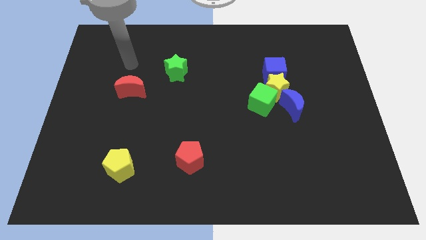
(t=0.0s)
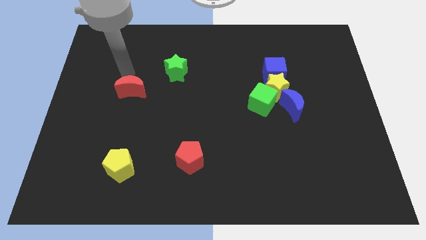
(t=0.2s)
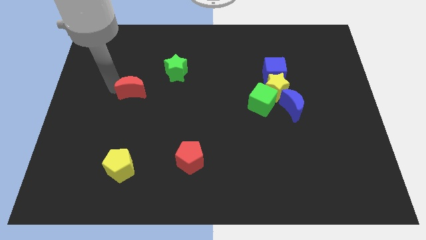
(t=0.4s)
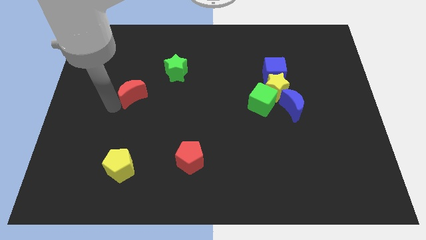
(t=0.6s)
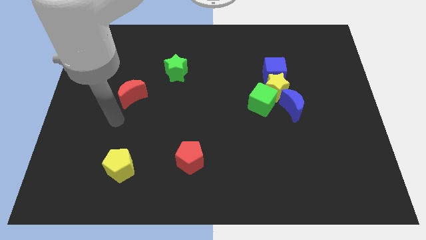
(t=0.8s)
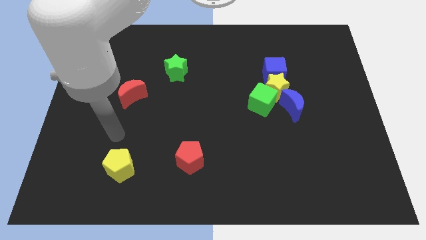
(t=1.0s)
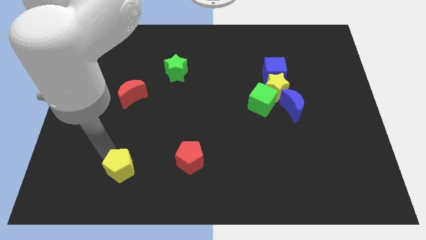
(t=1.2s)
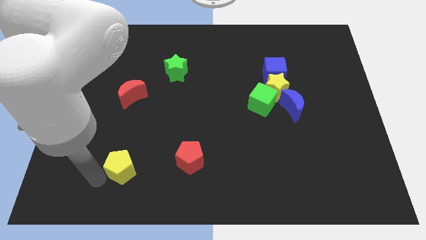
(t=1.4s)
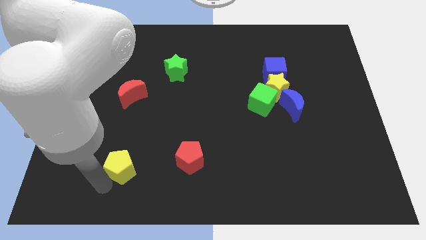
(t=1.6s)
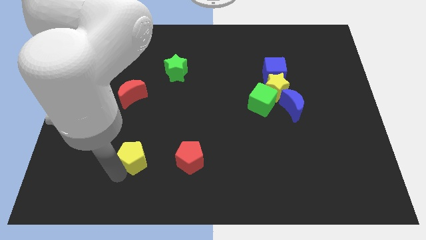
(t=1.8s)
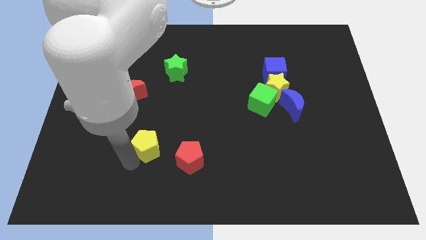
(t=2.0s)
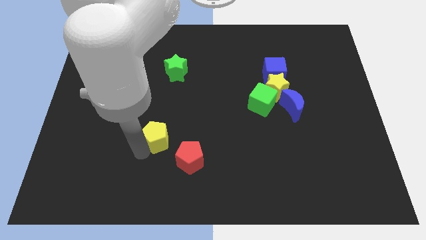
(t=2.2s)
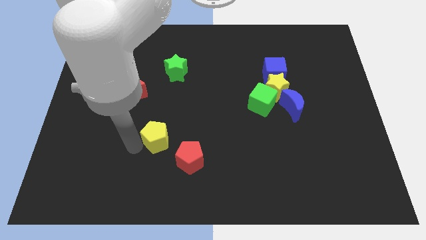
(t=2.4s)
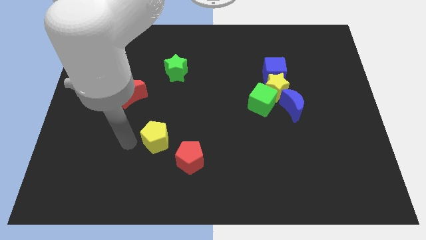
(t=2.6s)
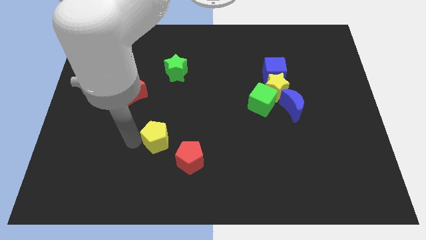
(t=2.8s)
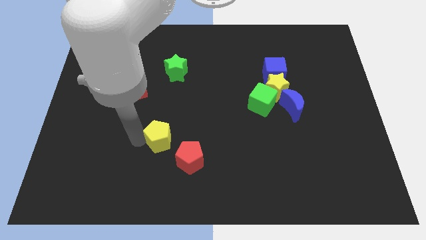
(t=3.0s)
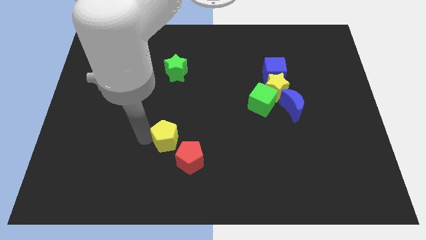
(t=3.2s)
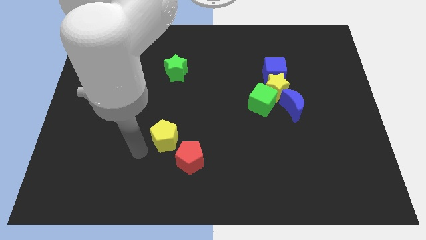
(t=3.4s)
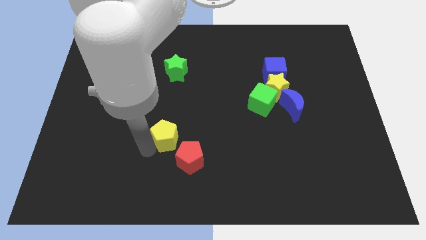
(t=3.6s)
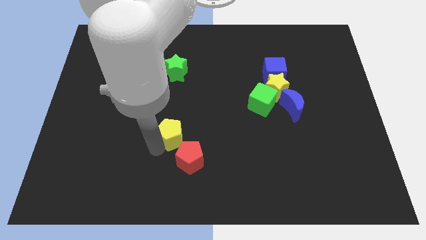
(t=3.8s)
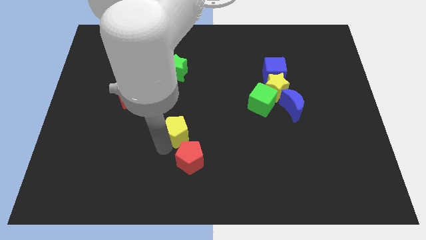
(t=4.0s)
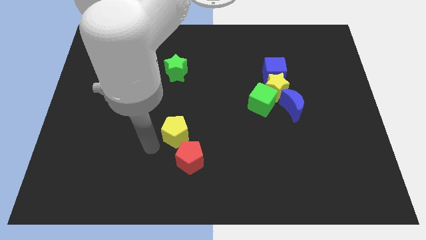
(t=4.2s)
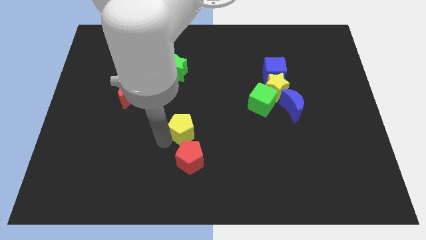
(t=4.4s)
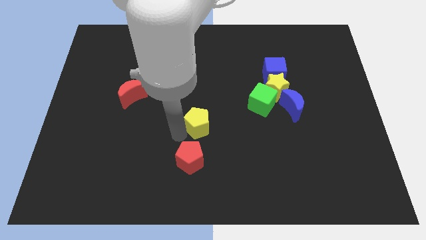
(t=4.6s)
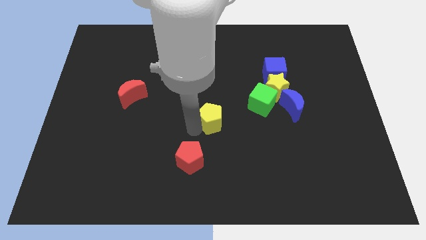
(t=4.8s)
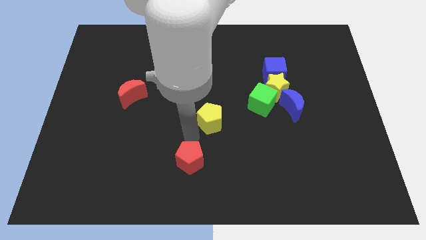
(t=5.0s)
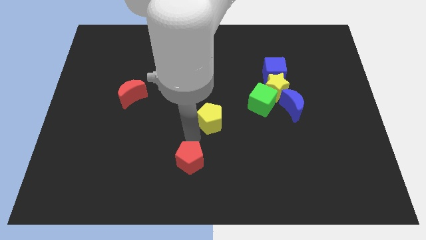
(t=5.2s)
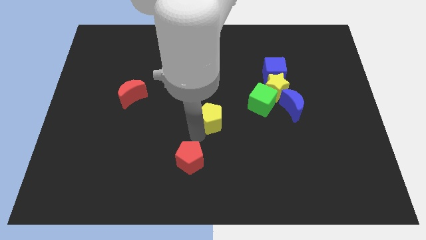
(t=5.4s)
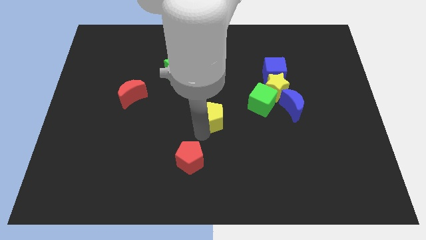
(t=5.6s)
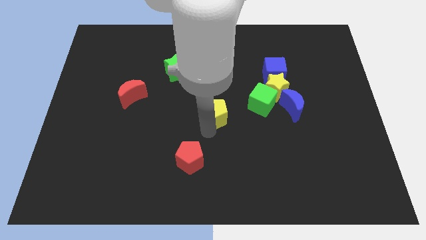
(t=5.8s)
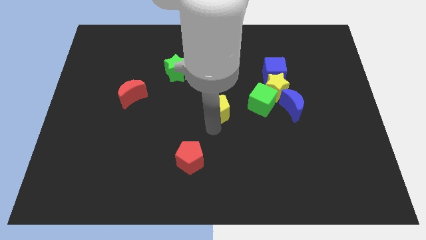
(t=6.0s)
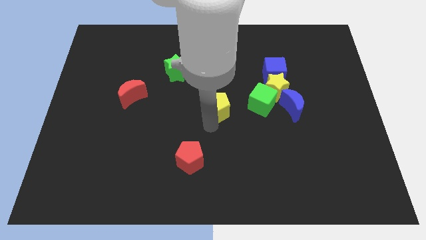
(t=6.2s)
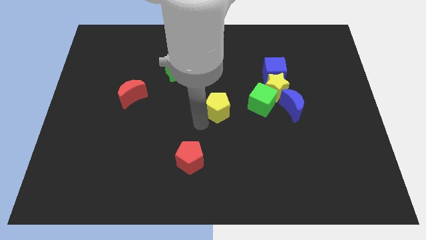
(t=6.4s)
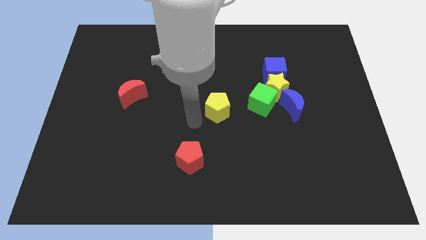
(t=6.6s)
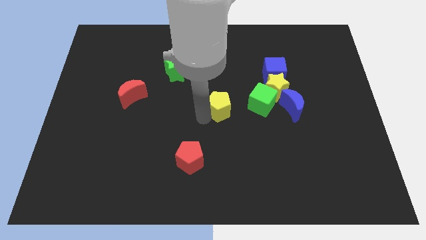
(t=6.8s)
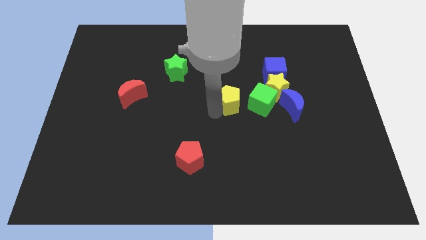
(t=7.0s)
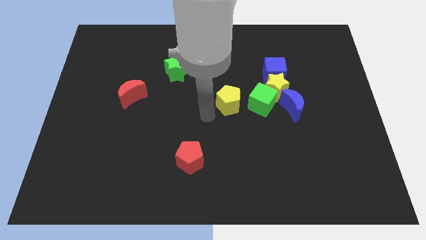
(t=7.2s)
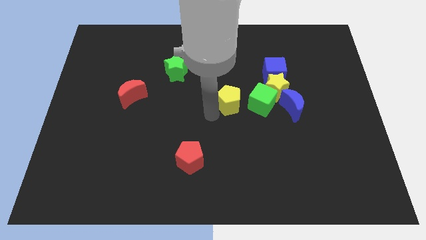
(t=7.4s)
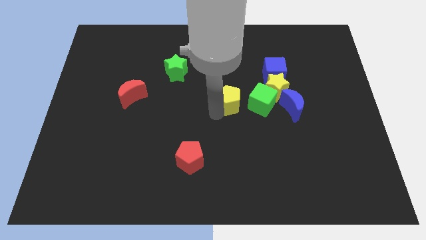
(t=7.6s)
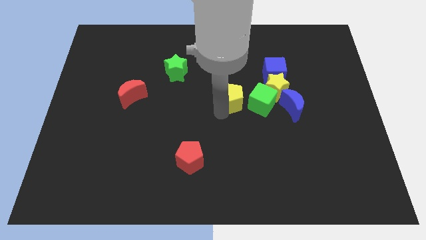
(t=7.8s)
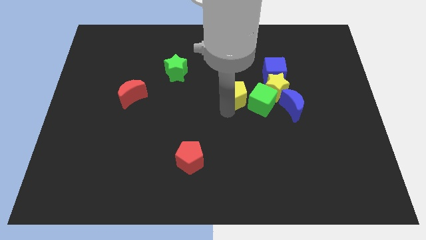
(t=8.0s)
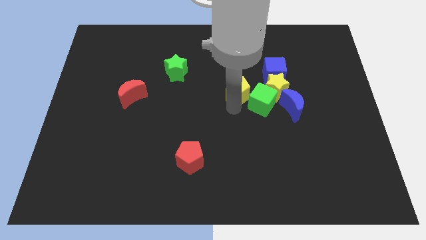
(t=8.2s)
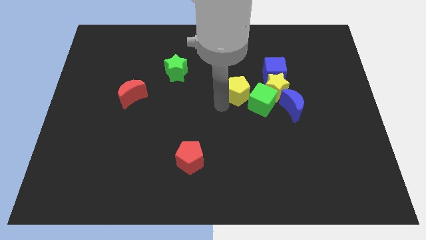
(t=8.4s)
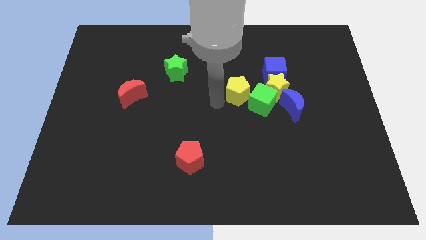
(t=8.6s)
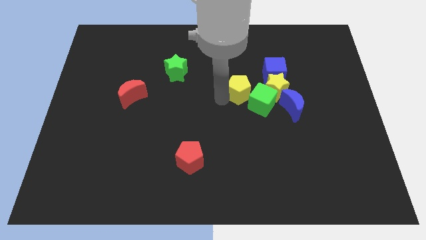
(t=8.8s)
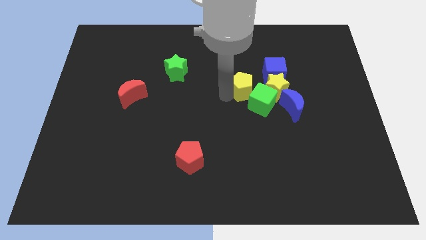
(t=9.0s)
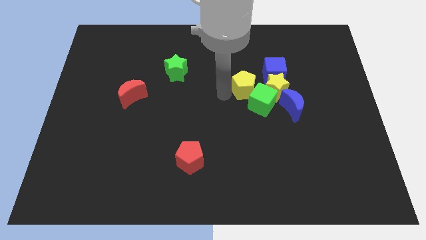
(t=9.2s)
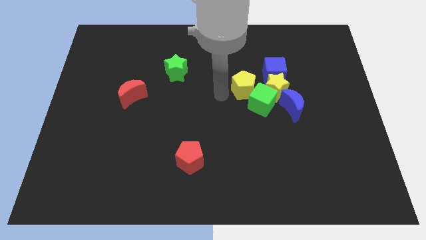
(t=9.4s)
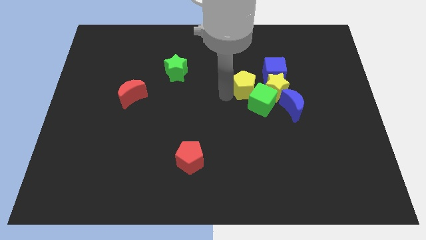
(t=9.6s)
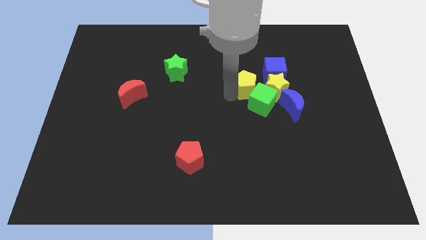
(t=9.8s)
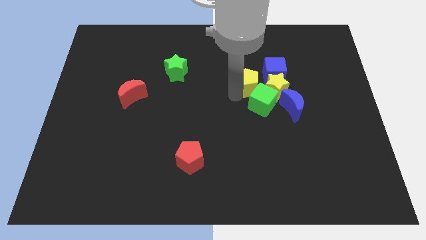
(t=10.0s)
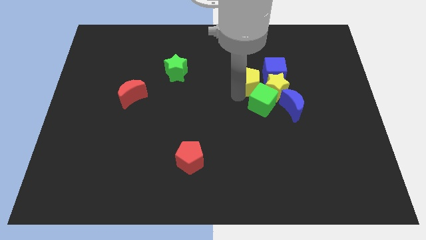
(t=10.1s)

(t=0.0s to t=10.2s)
move the yellow pentagon to the yellow star

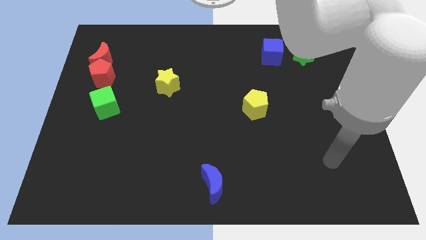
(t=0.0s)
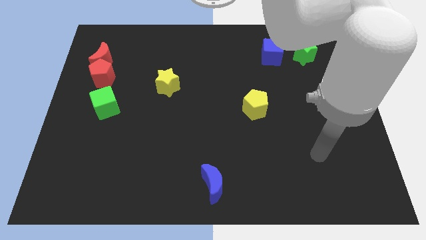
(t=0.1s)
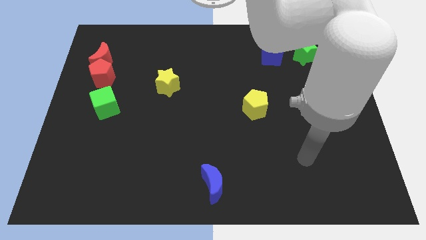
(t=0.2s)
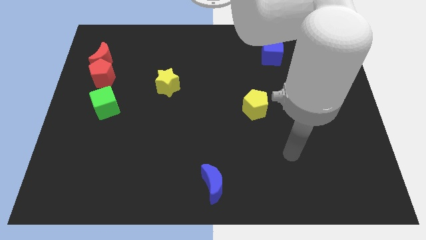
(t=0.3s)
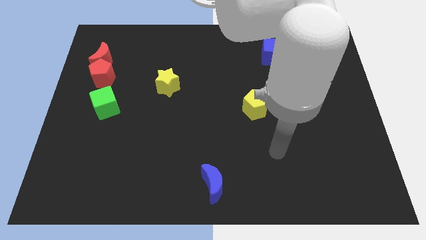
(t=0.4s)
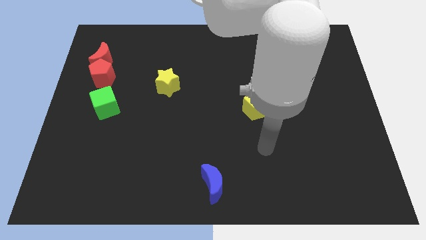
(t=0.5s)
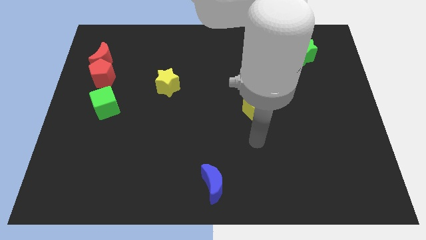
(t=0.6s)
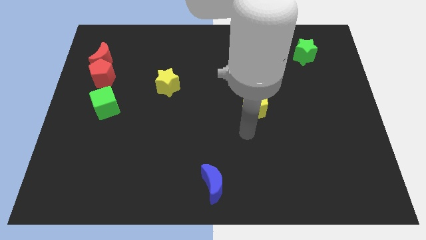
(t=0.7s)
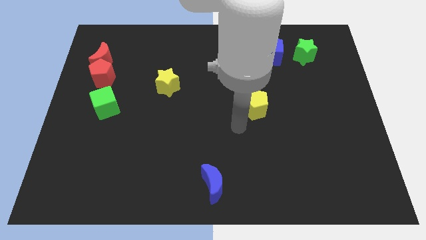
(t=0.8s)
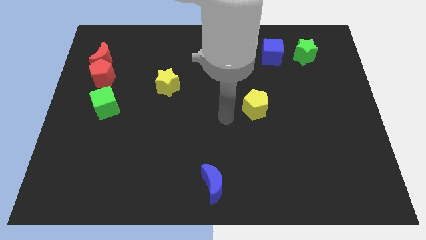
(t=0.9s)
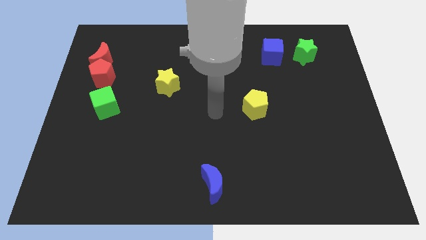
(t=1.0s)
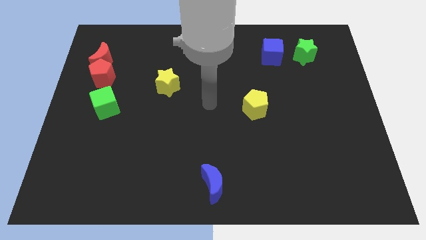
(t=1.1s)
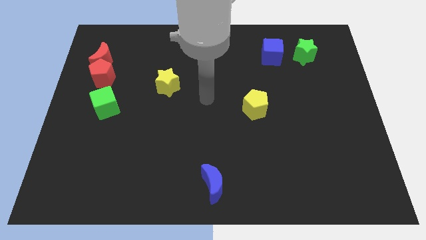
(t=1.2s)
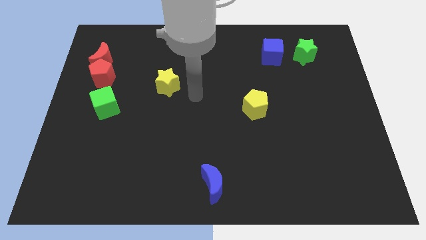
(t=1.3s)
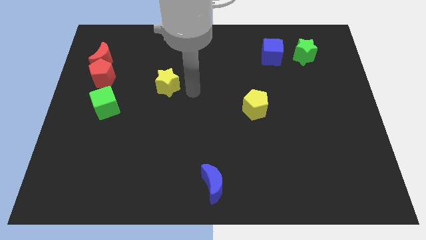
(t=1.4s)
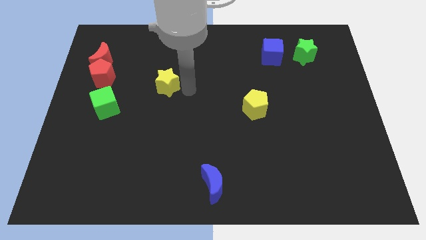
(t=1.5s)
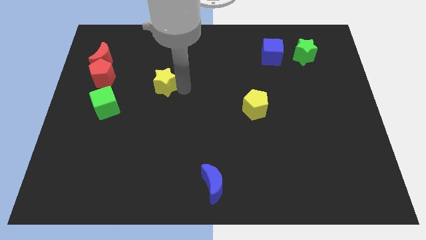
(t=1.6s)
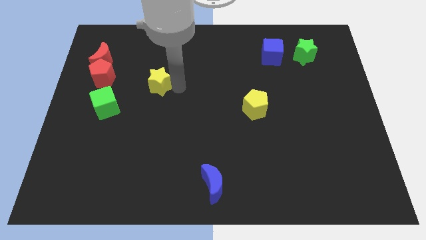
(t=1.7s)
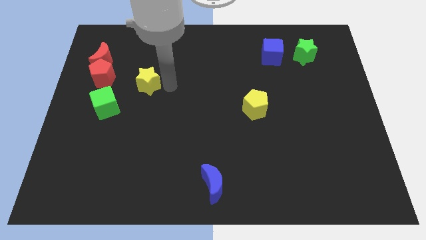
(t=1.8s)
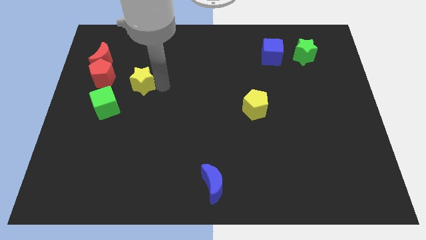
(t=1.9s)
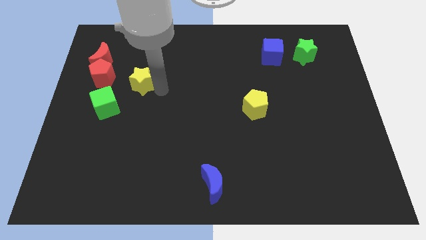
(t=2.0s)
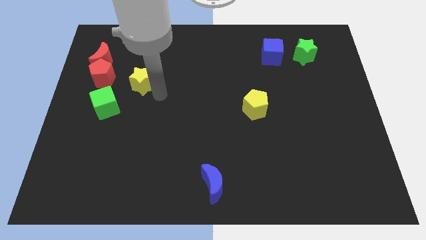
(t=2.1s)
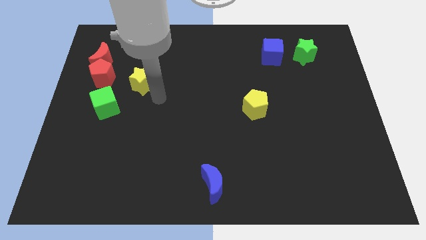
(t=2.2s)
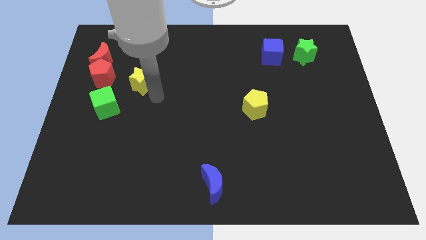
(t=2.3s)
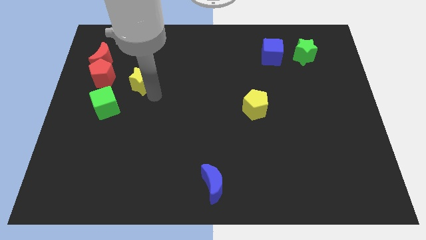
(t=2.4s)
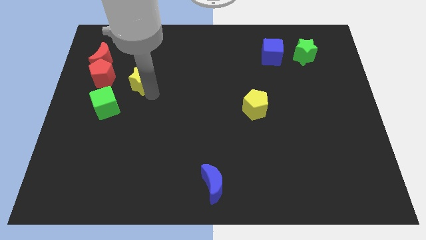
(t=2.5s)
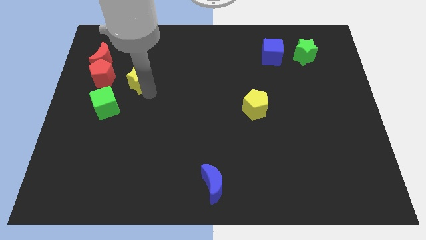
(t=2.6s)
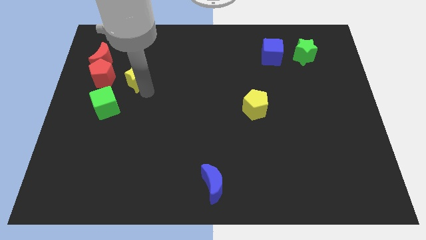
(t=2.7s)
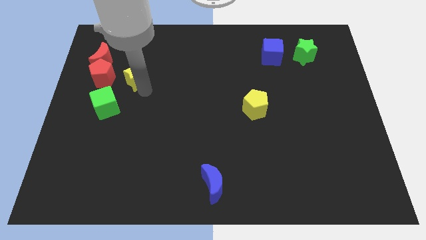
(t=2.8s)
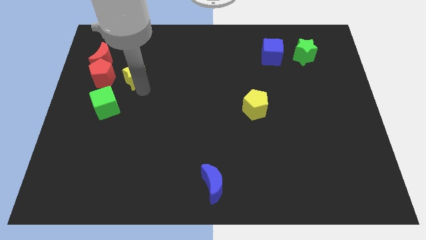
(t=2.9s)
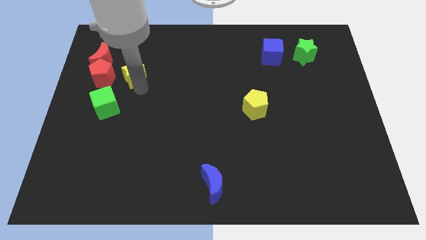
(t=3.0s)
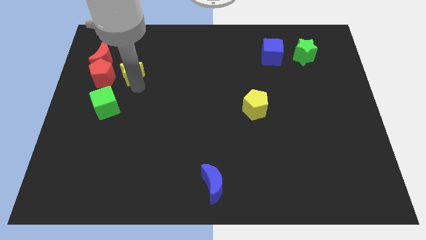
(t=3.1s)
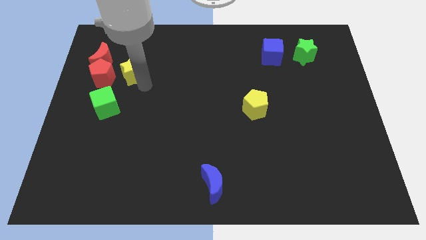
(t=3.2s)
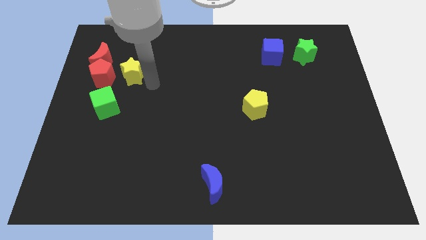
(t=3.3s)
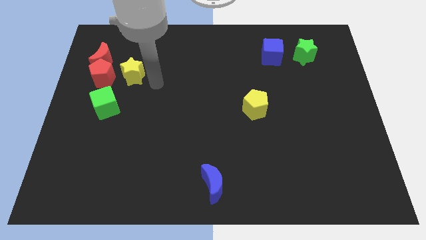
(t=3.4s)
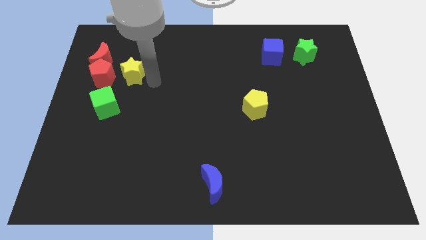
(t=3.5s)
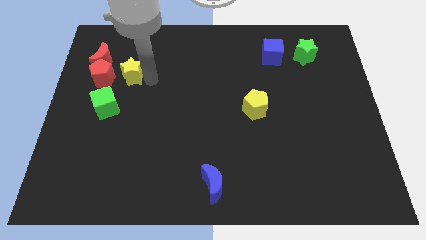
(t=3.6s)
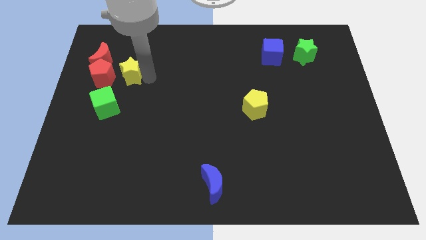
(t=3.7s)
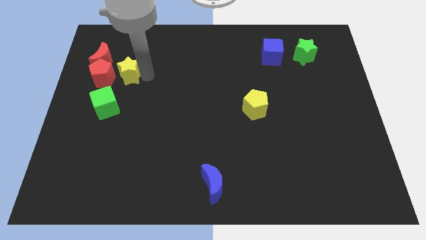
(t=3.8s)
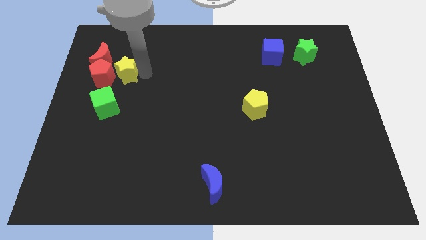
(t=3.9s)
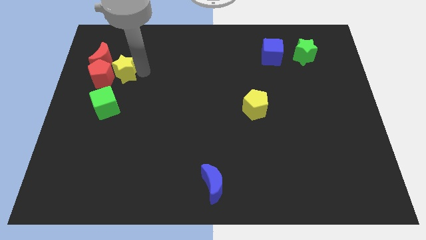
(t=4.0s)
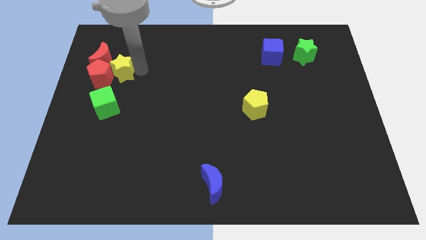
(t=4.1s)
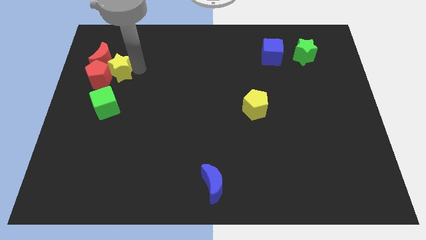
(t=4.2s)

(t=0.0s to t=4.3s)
push the yellow star close to the red moon
